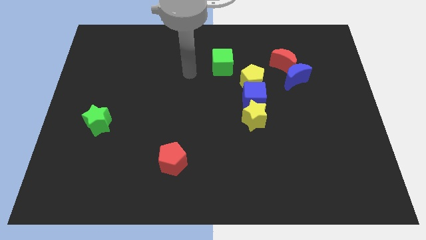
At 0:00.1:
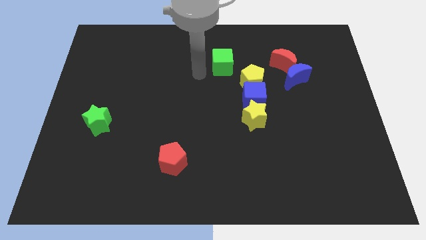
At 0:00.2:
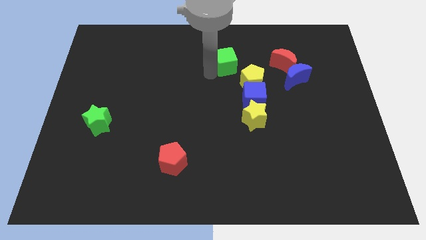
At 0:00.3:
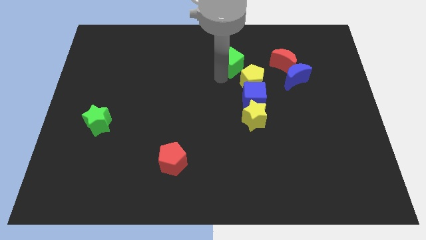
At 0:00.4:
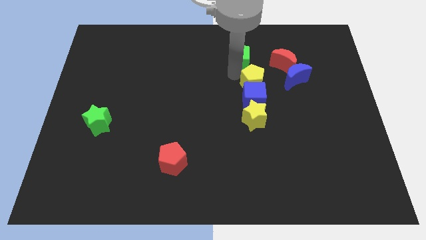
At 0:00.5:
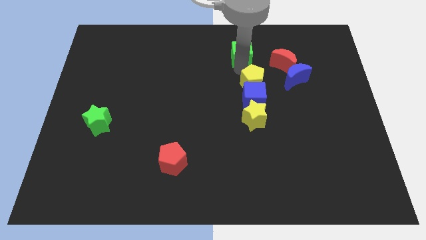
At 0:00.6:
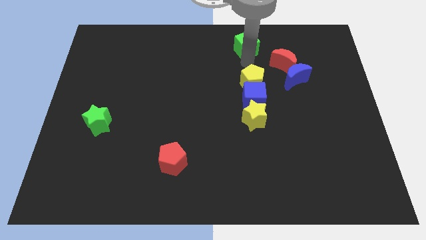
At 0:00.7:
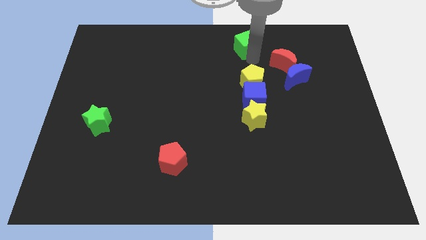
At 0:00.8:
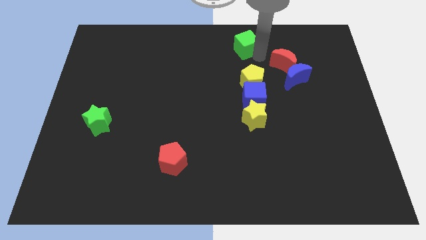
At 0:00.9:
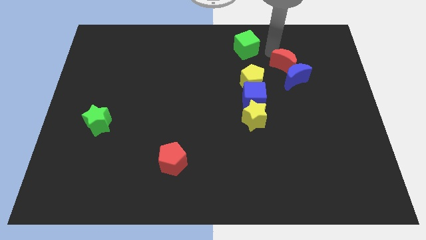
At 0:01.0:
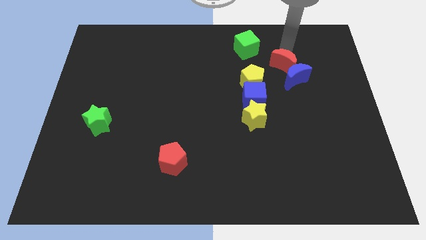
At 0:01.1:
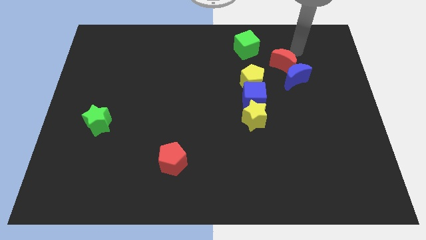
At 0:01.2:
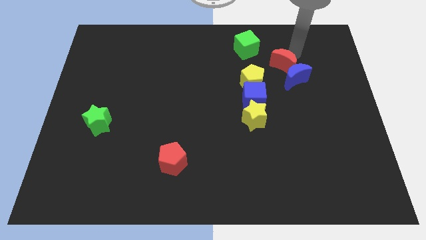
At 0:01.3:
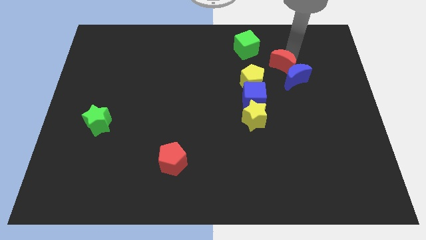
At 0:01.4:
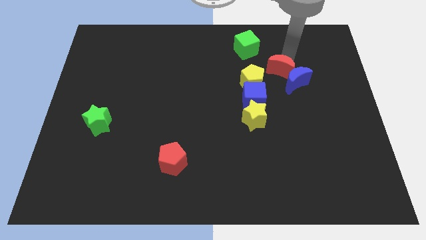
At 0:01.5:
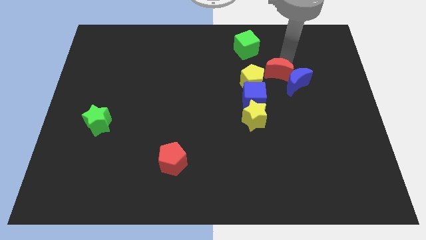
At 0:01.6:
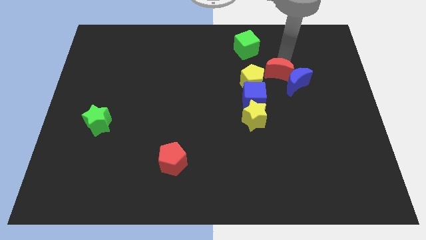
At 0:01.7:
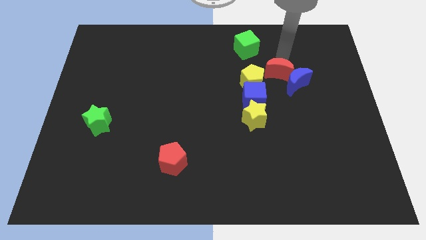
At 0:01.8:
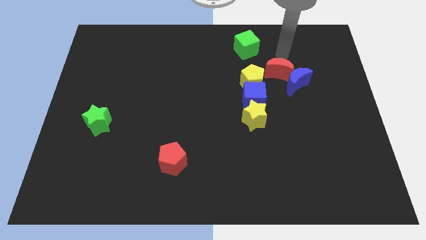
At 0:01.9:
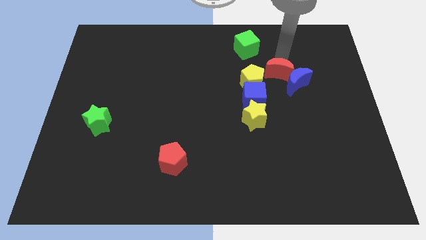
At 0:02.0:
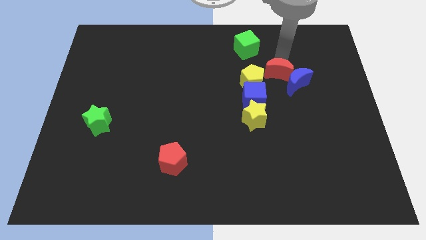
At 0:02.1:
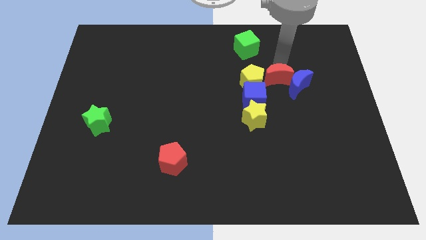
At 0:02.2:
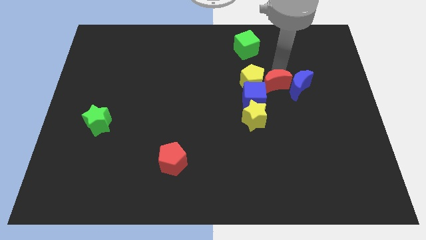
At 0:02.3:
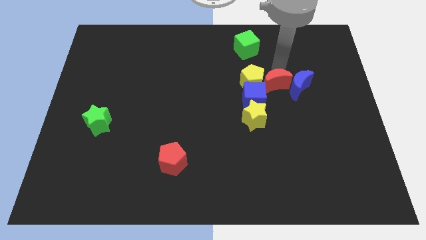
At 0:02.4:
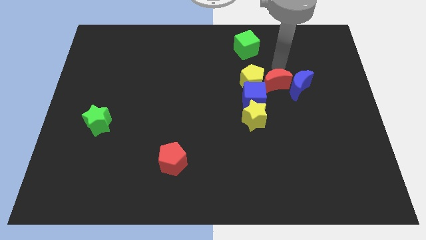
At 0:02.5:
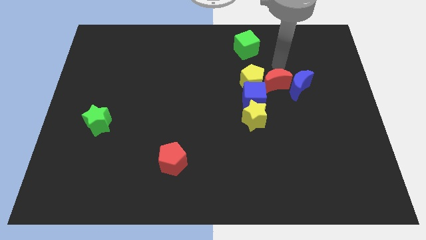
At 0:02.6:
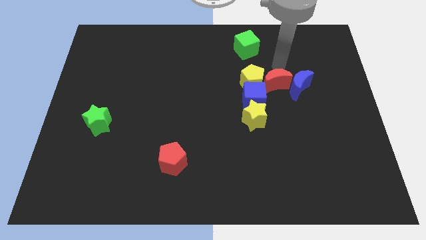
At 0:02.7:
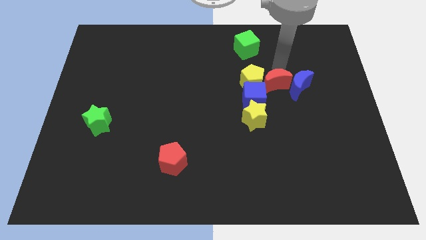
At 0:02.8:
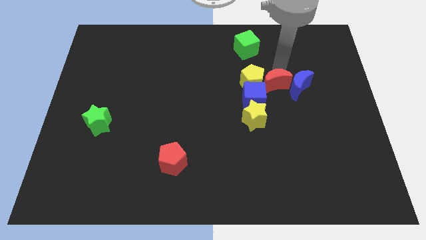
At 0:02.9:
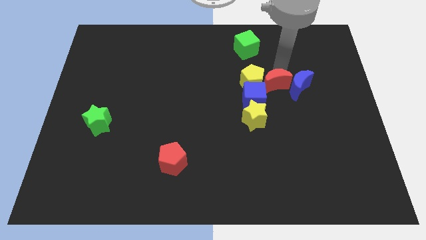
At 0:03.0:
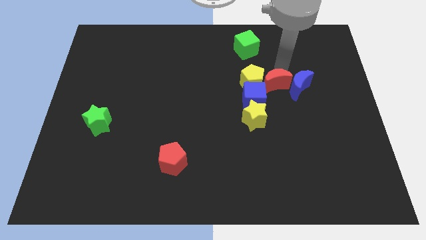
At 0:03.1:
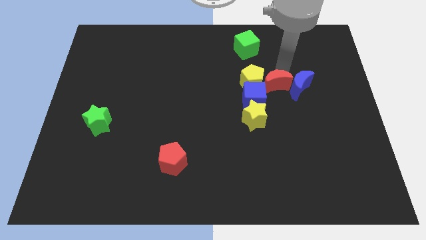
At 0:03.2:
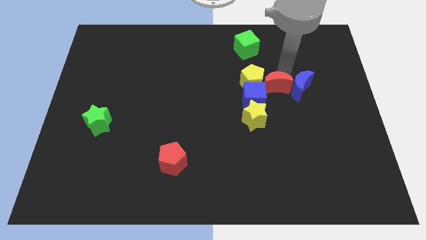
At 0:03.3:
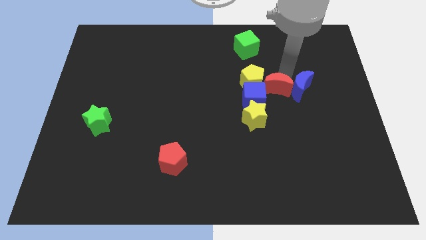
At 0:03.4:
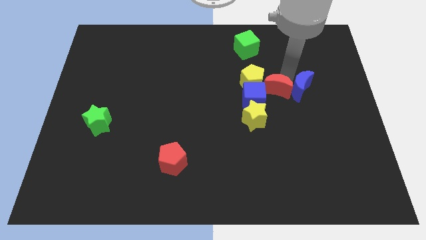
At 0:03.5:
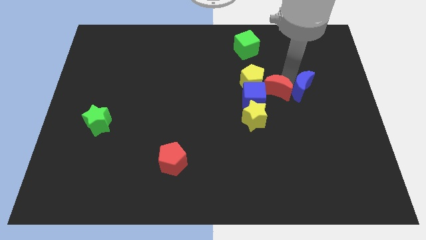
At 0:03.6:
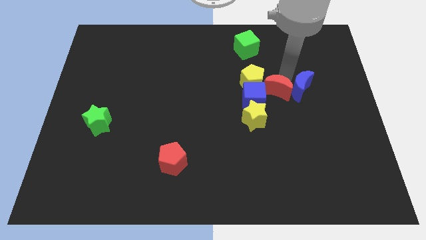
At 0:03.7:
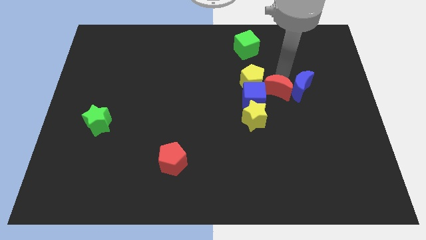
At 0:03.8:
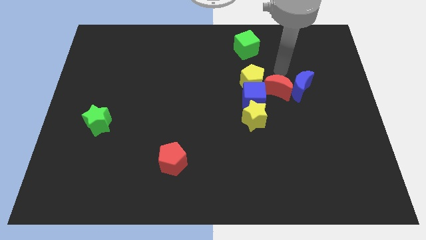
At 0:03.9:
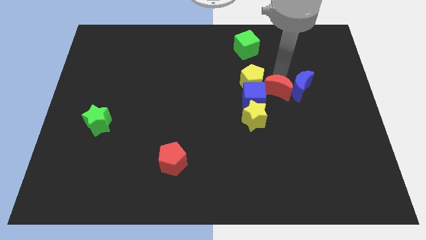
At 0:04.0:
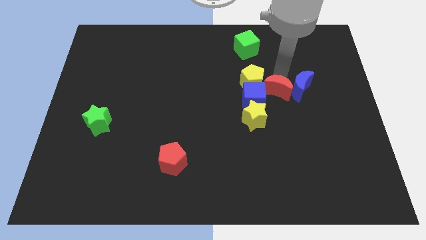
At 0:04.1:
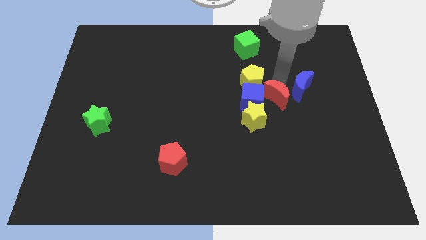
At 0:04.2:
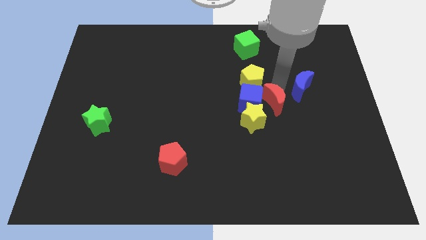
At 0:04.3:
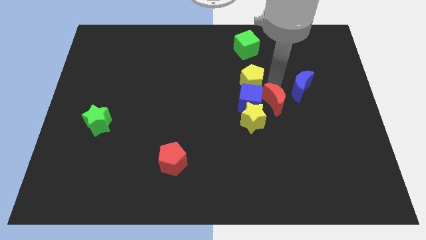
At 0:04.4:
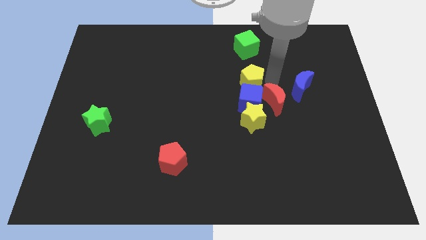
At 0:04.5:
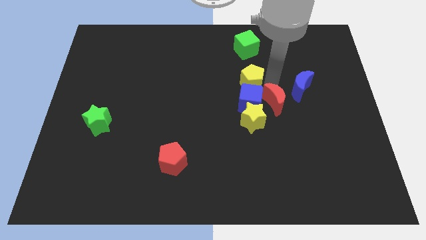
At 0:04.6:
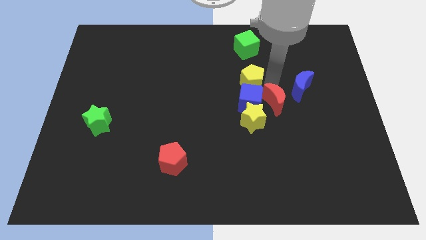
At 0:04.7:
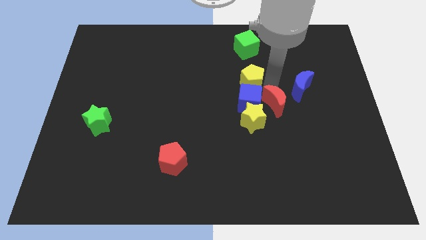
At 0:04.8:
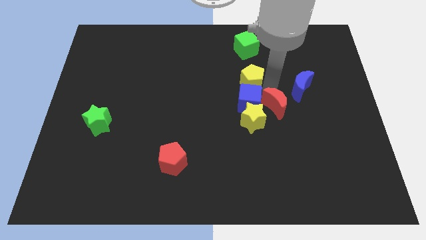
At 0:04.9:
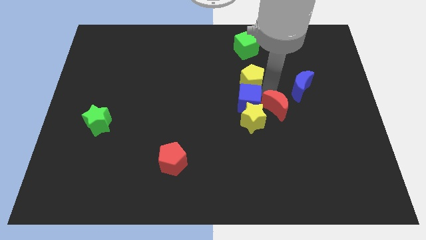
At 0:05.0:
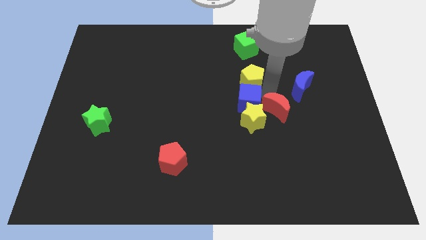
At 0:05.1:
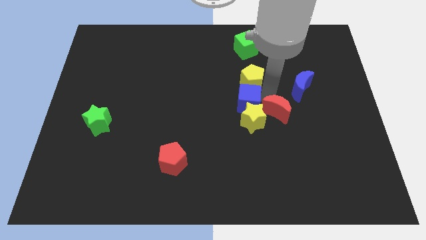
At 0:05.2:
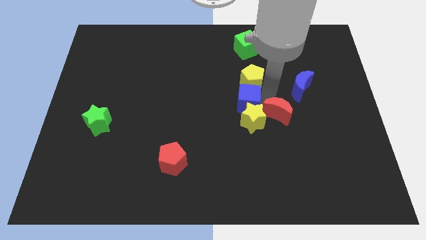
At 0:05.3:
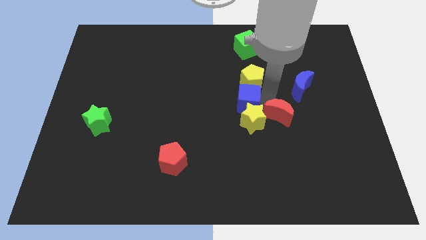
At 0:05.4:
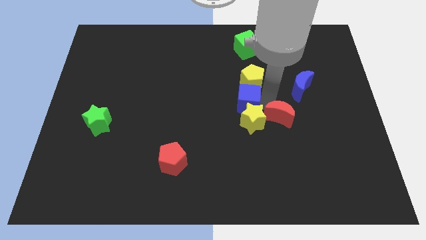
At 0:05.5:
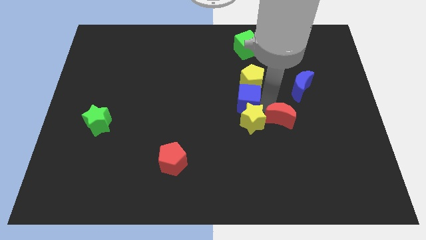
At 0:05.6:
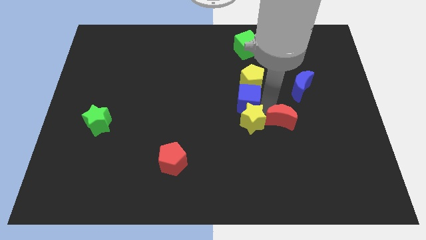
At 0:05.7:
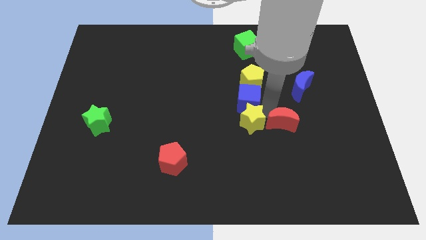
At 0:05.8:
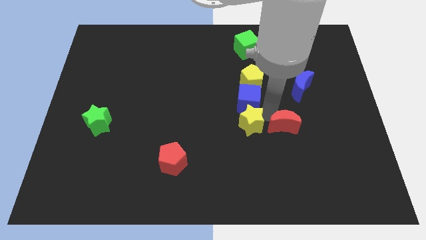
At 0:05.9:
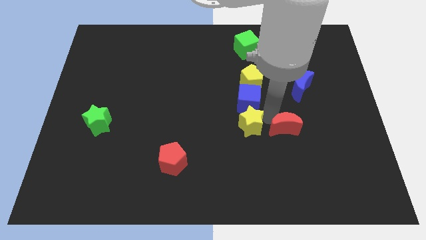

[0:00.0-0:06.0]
slide the red moon down

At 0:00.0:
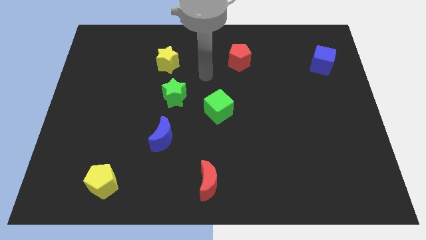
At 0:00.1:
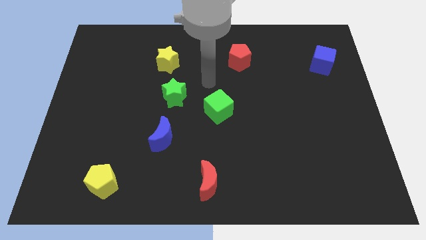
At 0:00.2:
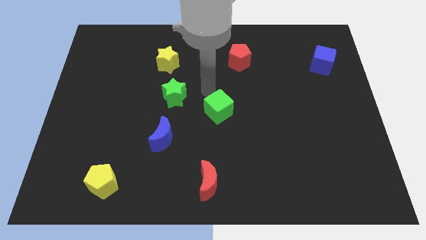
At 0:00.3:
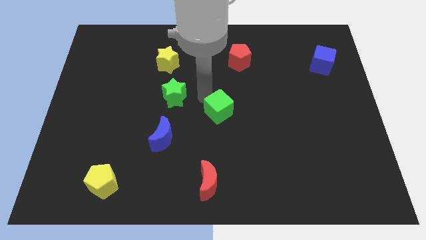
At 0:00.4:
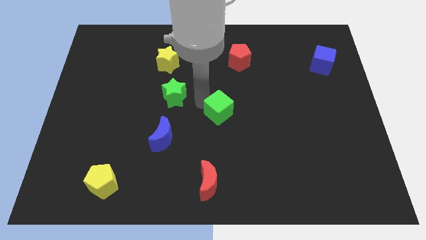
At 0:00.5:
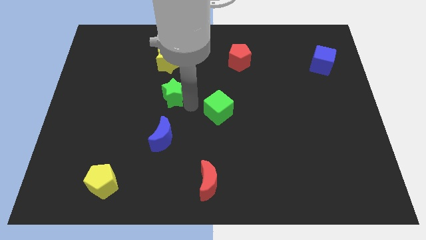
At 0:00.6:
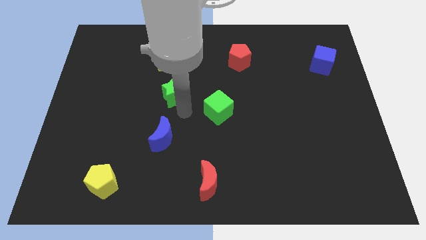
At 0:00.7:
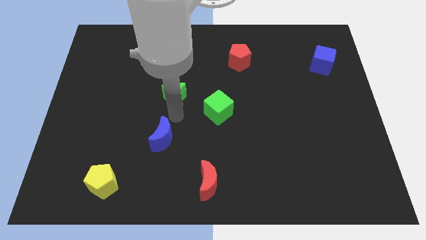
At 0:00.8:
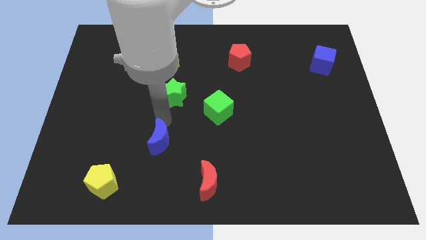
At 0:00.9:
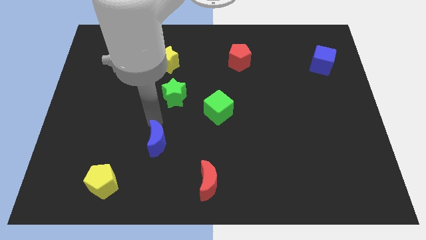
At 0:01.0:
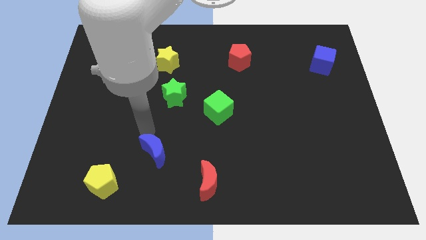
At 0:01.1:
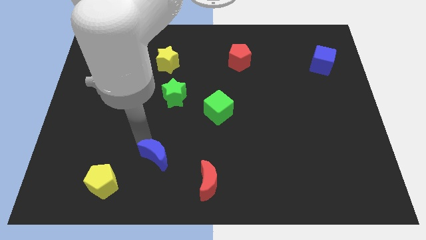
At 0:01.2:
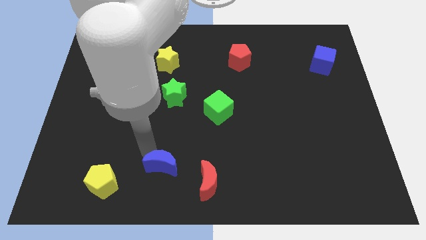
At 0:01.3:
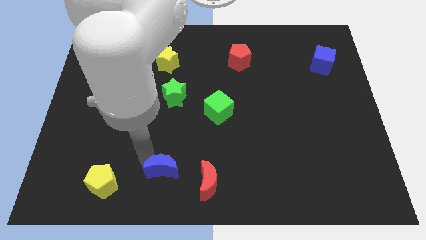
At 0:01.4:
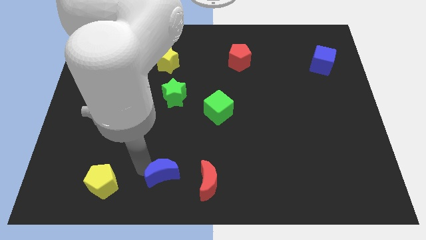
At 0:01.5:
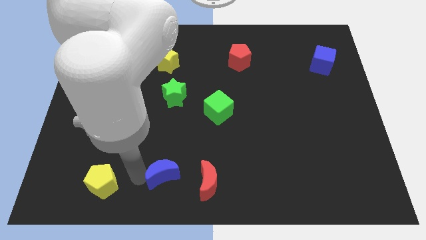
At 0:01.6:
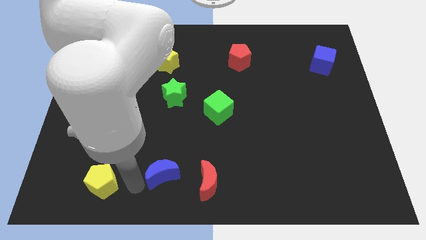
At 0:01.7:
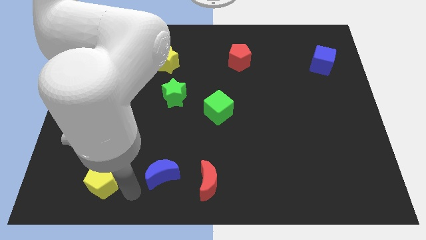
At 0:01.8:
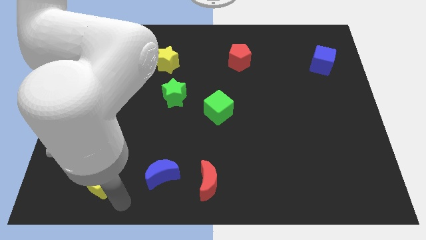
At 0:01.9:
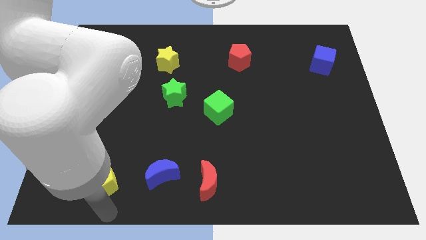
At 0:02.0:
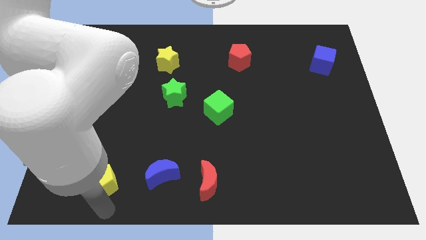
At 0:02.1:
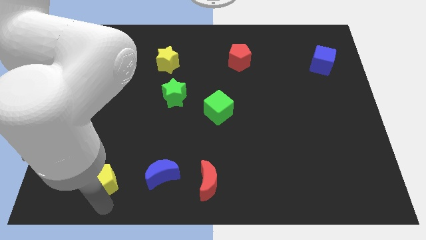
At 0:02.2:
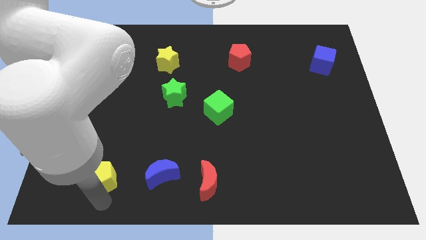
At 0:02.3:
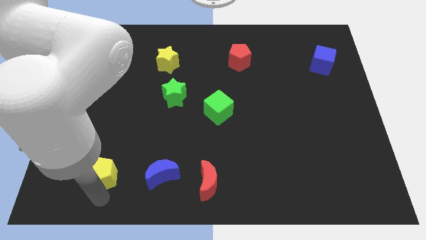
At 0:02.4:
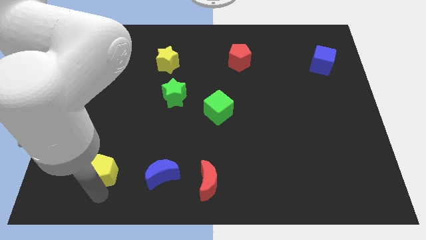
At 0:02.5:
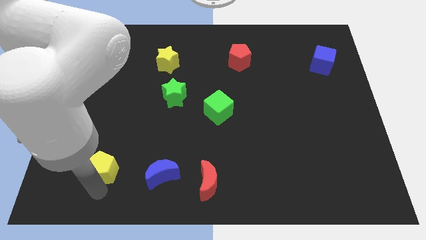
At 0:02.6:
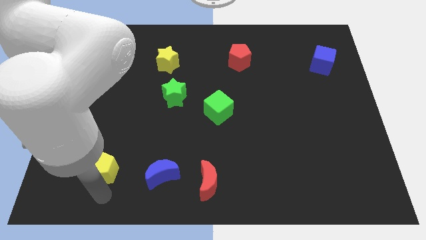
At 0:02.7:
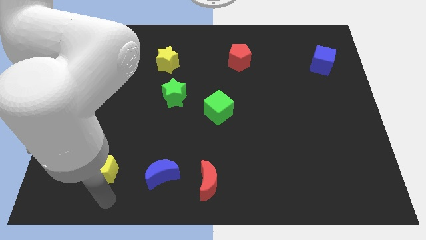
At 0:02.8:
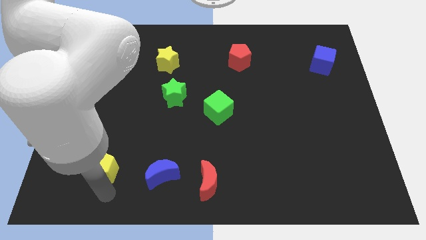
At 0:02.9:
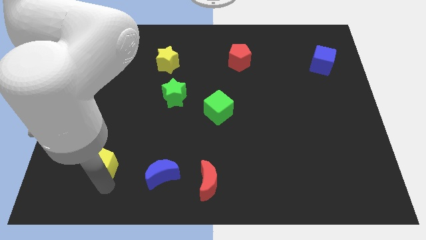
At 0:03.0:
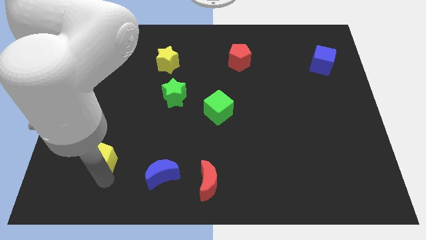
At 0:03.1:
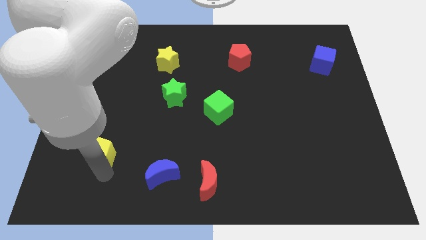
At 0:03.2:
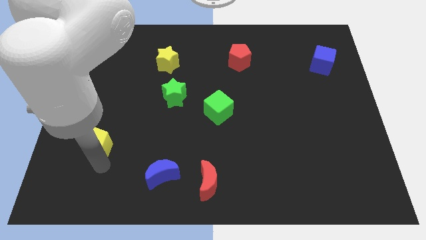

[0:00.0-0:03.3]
slide the yellow pentagon a little bit up
